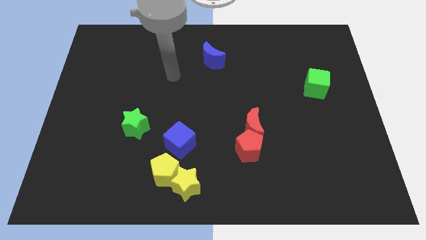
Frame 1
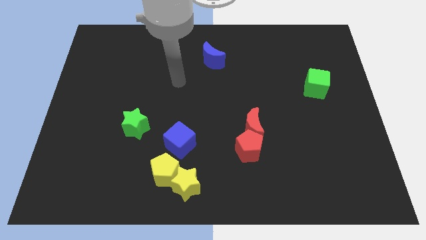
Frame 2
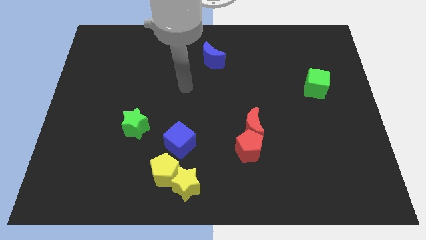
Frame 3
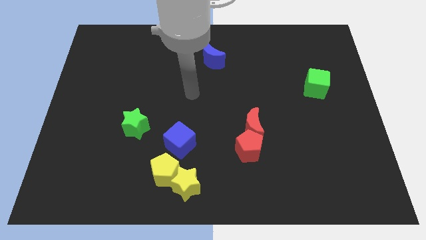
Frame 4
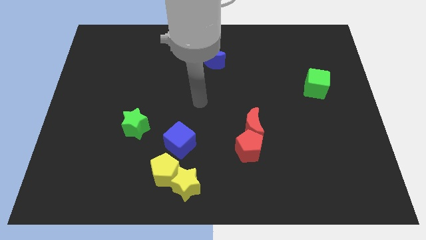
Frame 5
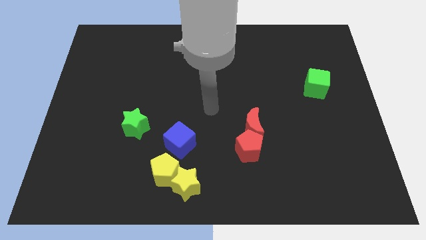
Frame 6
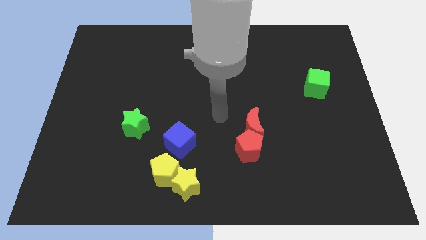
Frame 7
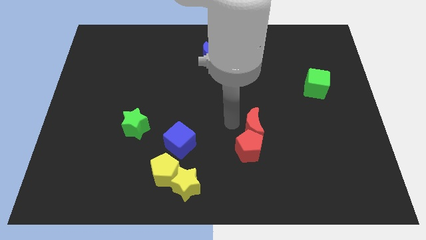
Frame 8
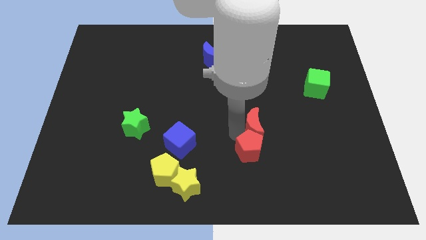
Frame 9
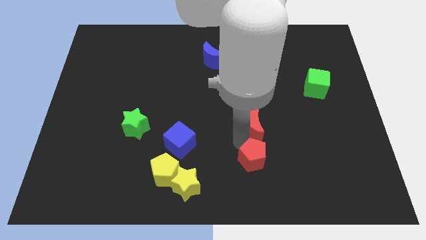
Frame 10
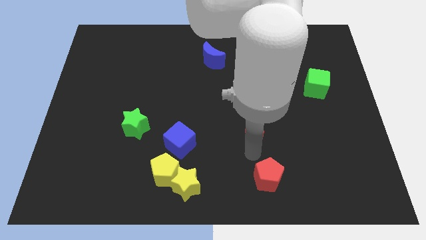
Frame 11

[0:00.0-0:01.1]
pull the red moon apart from the red pentagon

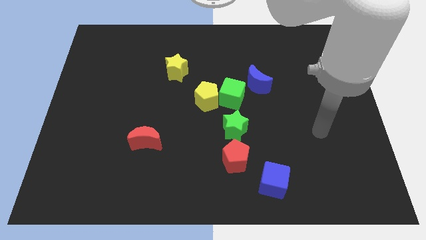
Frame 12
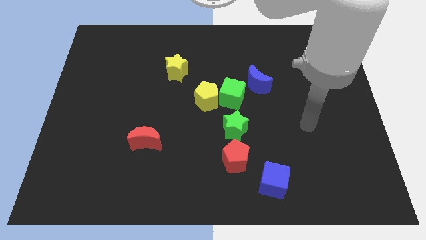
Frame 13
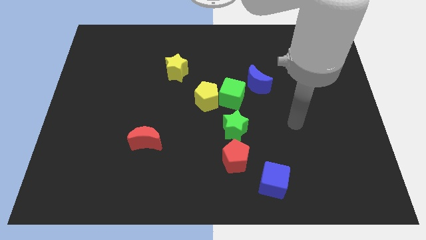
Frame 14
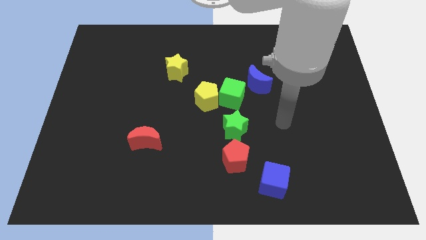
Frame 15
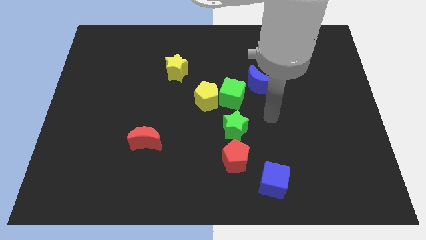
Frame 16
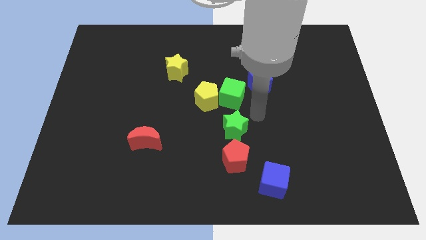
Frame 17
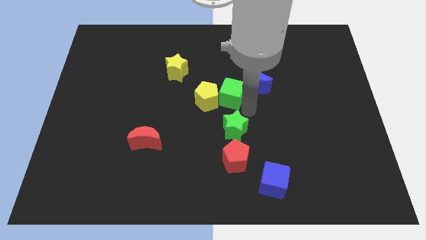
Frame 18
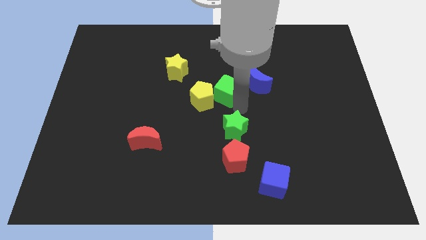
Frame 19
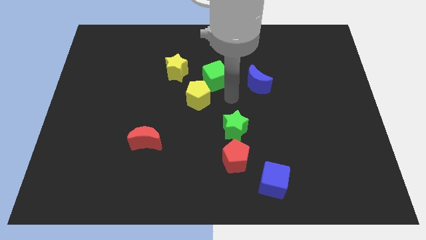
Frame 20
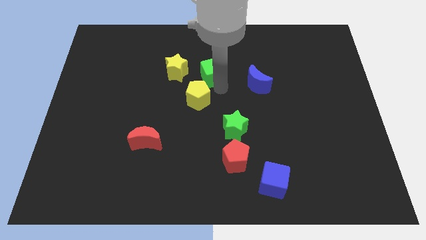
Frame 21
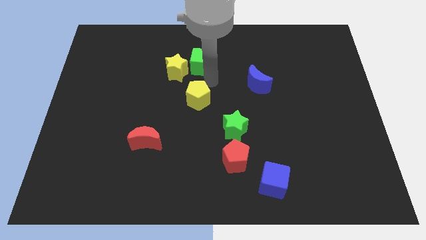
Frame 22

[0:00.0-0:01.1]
pull the yellow pentagon apart from the green cube

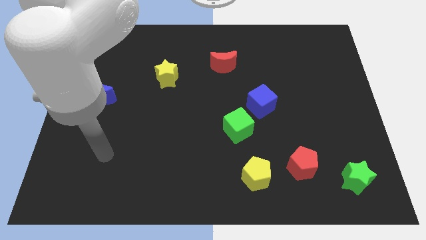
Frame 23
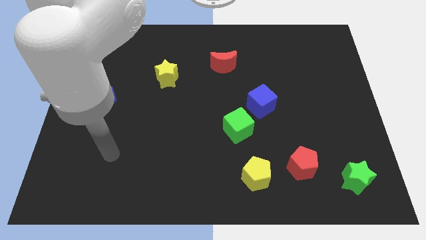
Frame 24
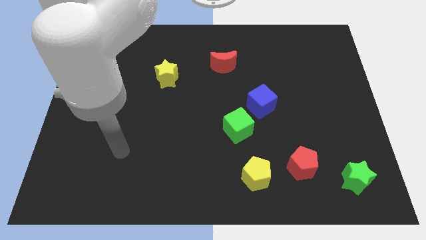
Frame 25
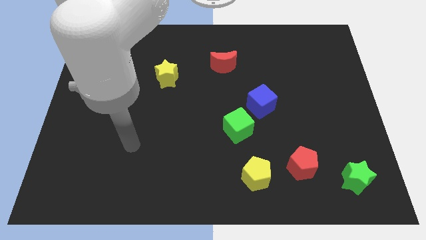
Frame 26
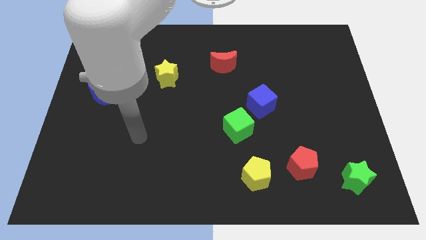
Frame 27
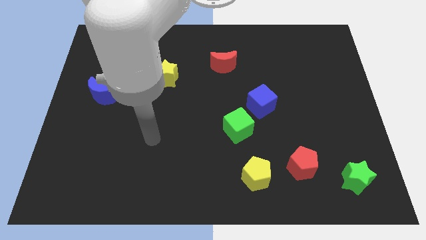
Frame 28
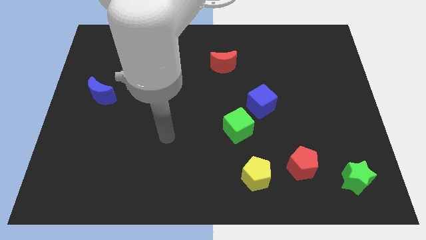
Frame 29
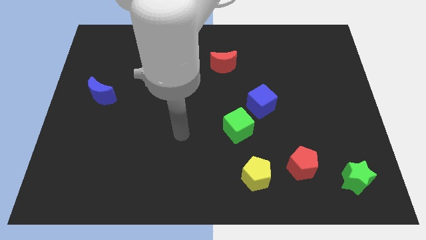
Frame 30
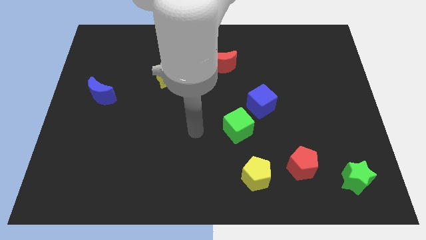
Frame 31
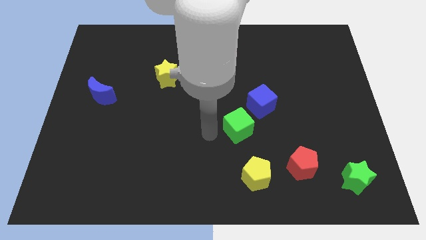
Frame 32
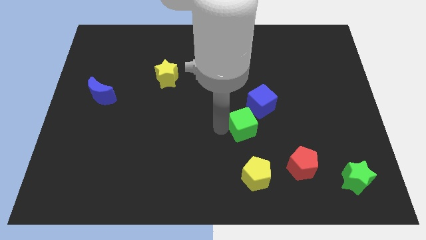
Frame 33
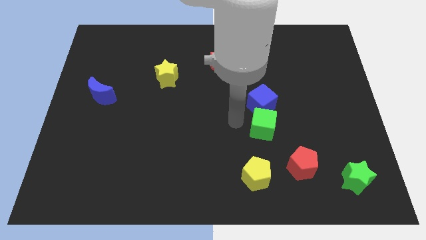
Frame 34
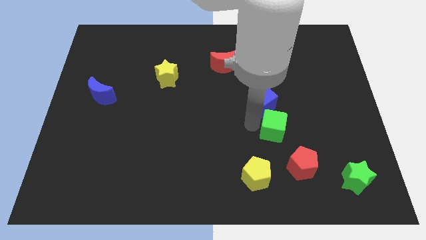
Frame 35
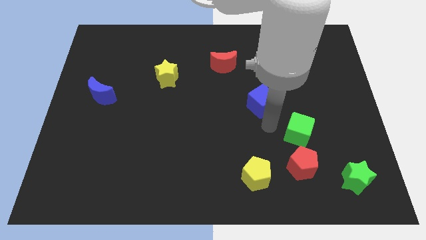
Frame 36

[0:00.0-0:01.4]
separate the blue cube from the green cube

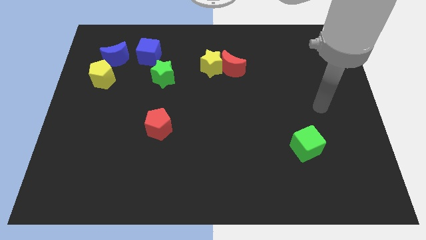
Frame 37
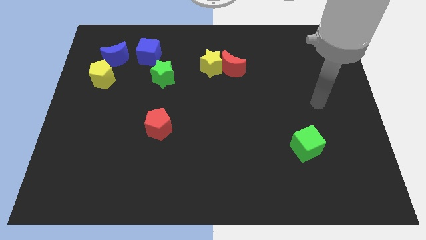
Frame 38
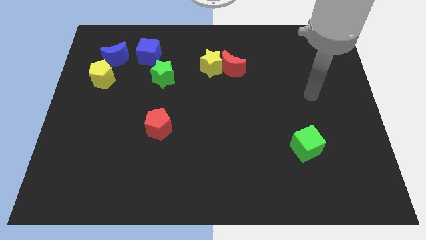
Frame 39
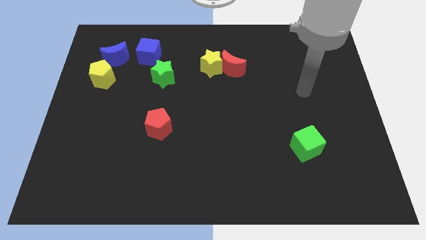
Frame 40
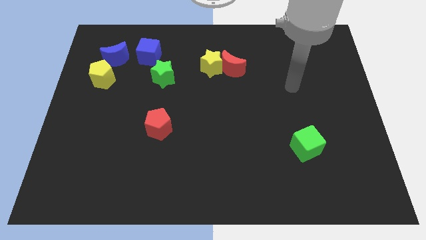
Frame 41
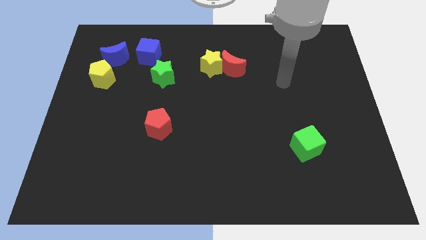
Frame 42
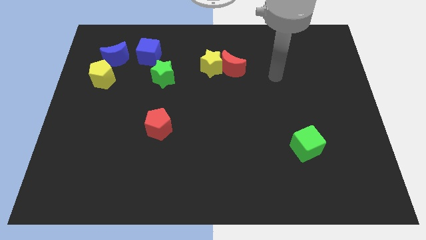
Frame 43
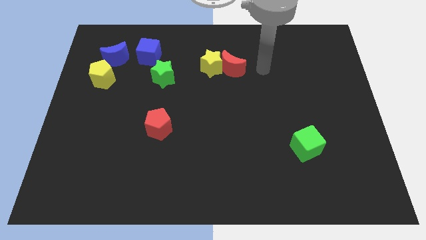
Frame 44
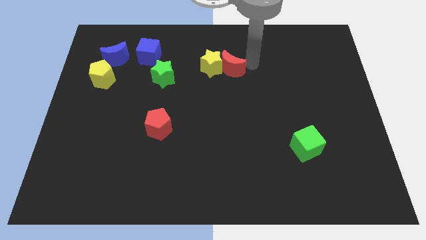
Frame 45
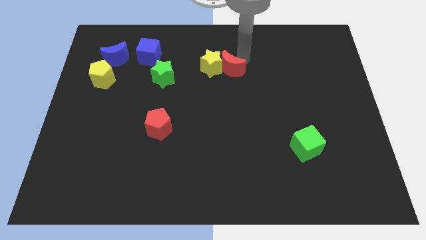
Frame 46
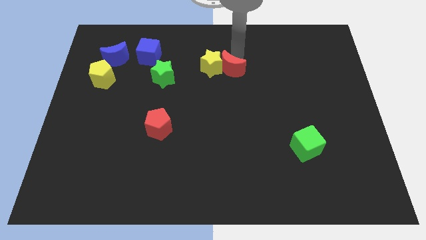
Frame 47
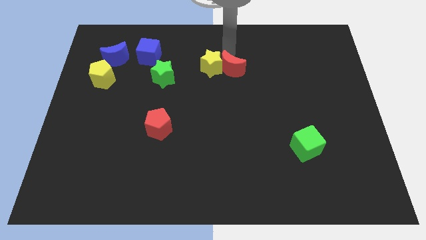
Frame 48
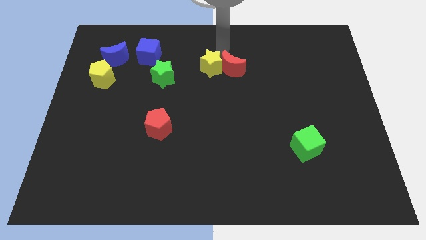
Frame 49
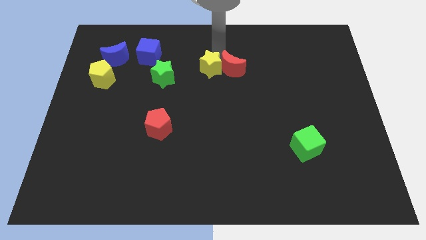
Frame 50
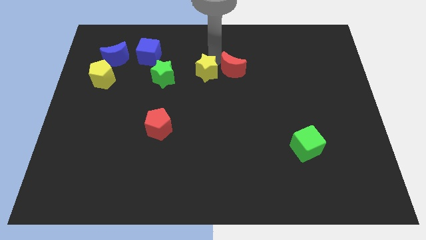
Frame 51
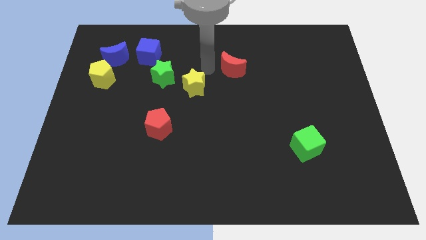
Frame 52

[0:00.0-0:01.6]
move the red moon away from the yellow star

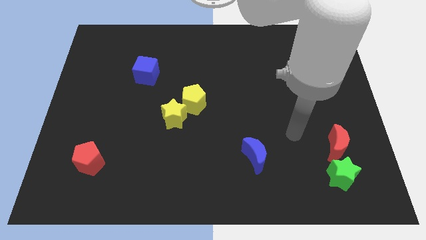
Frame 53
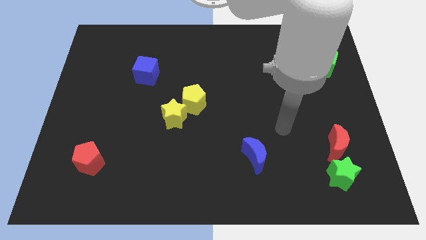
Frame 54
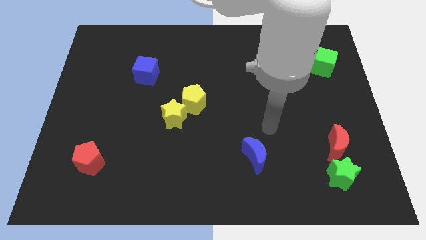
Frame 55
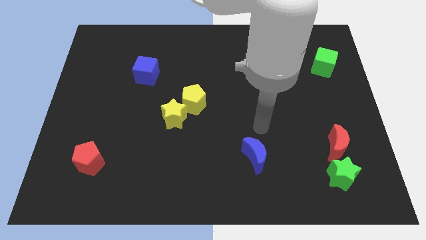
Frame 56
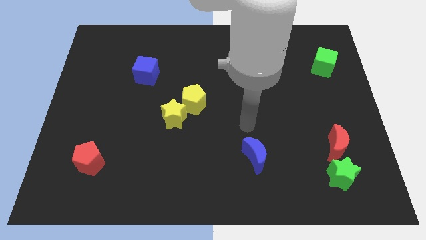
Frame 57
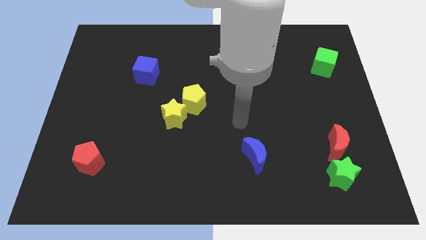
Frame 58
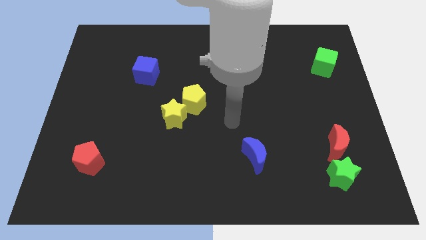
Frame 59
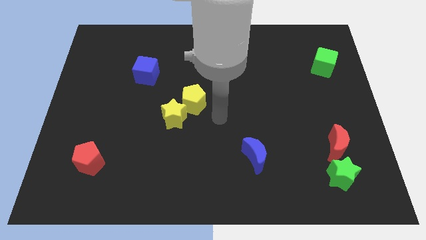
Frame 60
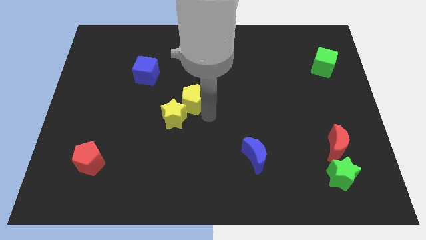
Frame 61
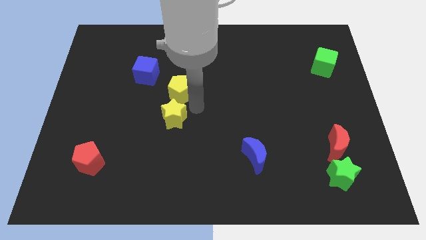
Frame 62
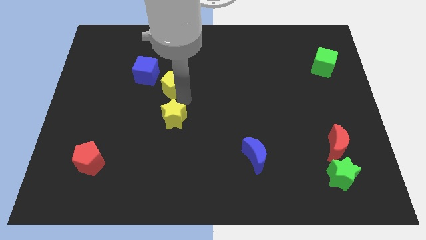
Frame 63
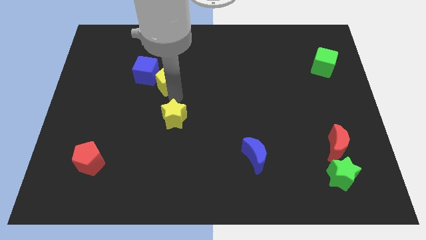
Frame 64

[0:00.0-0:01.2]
separate the yellow star from the yellow pentagon

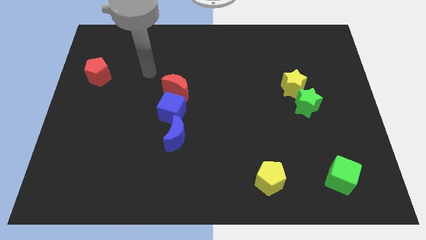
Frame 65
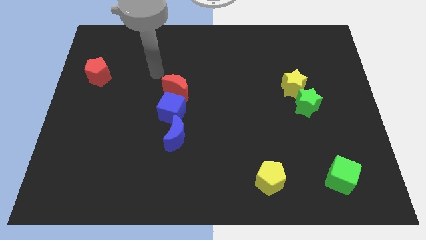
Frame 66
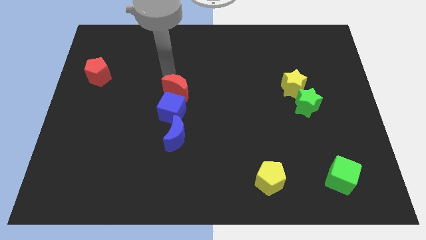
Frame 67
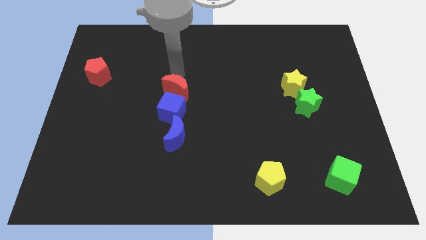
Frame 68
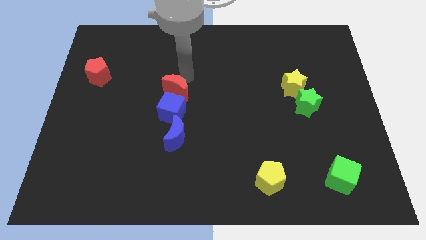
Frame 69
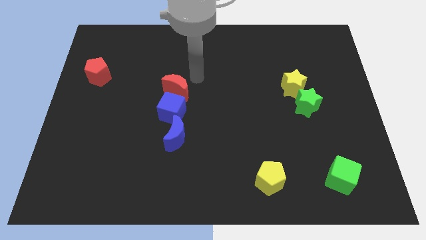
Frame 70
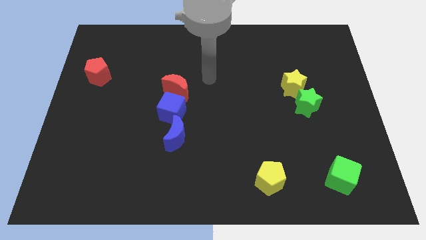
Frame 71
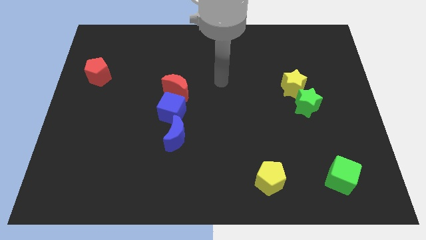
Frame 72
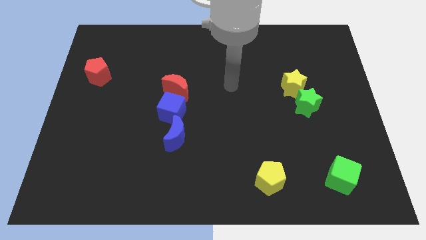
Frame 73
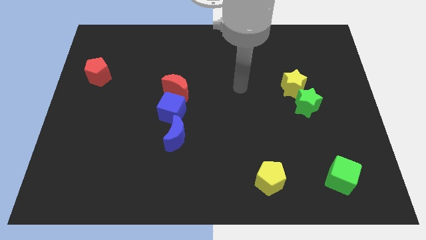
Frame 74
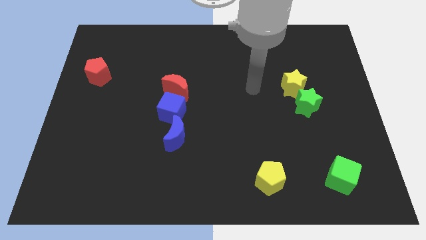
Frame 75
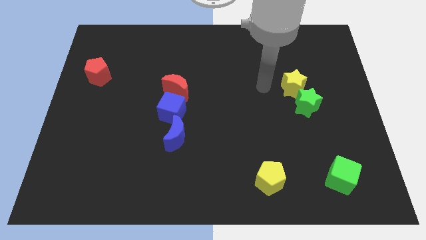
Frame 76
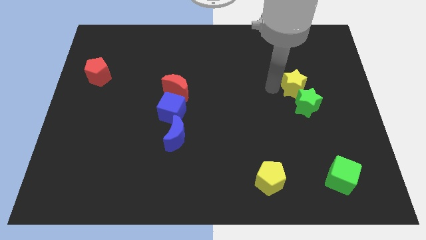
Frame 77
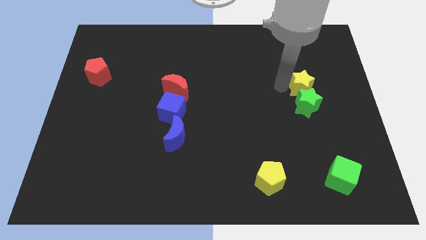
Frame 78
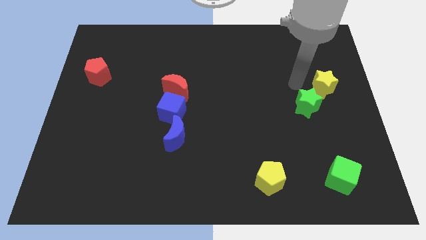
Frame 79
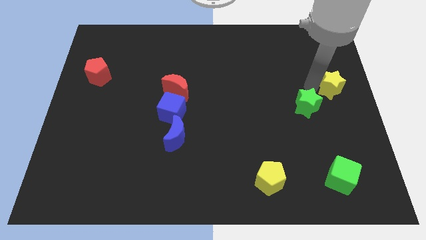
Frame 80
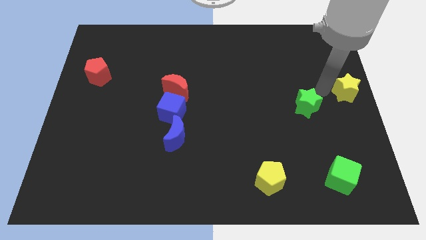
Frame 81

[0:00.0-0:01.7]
pull the green star apart from the yellow star

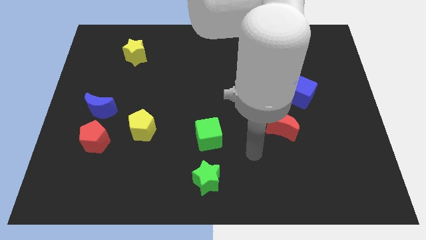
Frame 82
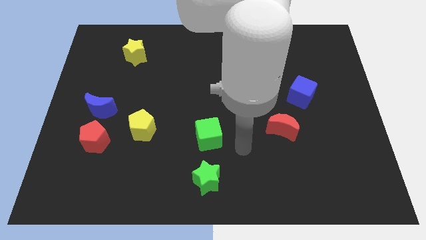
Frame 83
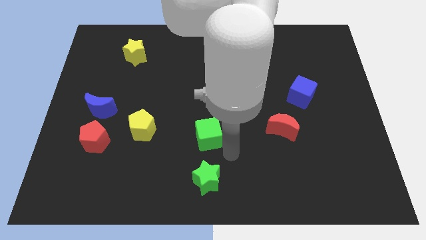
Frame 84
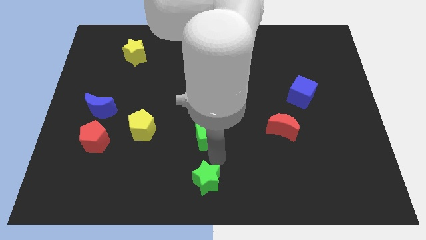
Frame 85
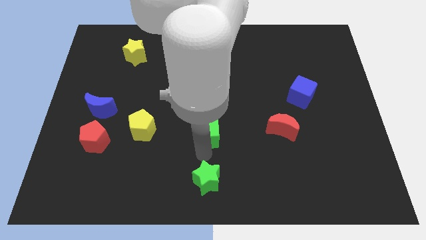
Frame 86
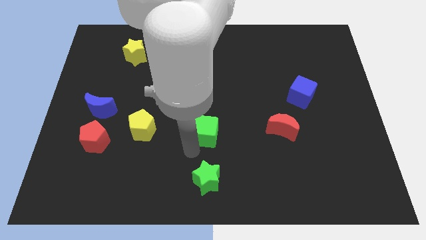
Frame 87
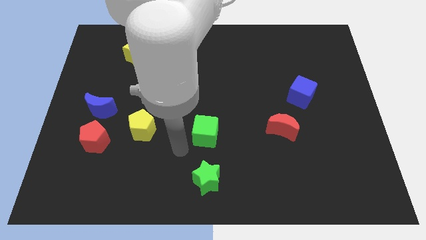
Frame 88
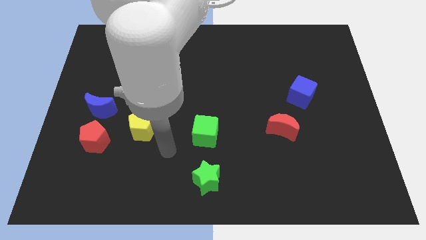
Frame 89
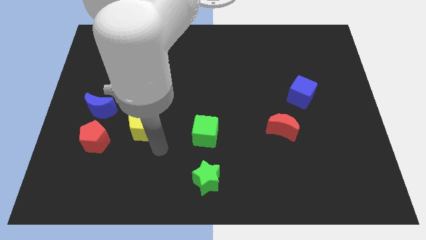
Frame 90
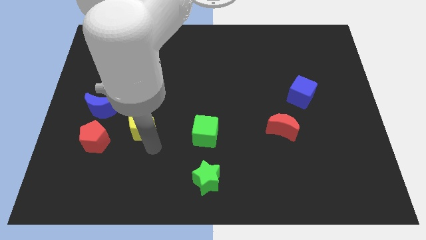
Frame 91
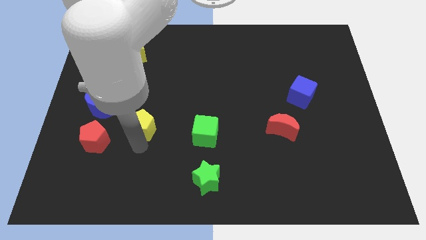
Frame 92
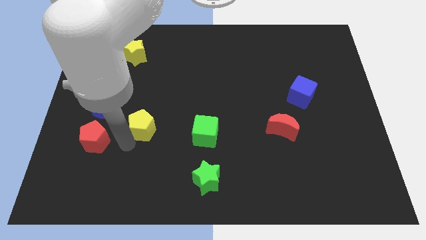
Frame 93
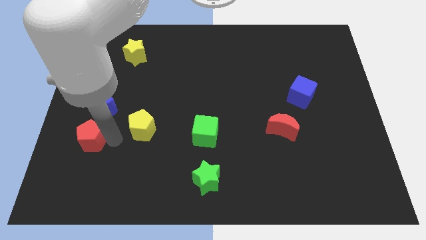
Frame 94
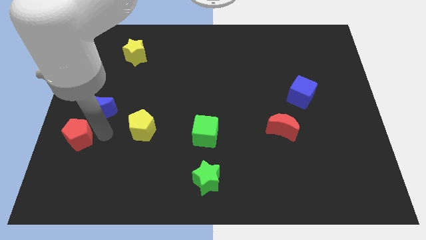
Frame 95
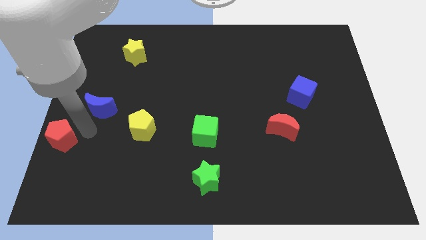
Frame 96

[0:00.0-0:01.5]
separate the blue moon from the red pentagon
